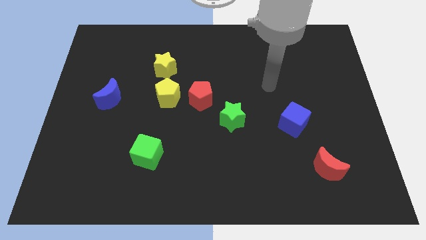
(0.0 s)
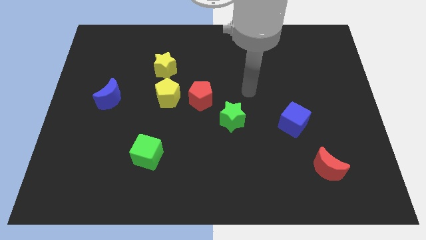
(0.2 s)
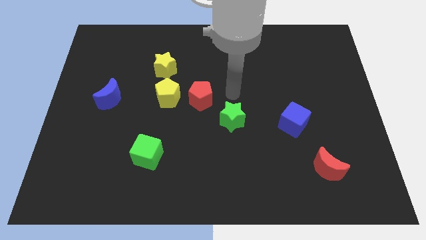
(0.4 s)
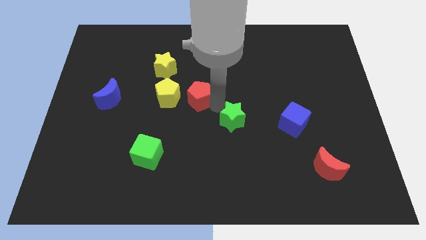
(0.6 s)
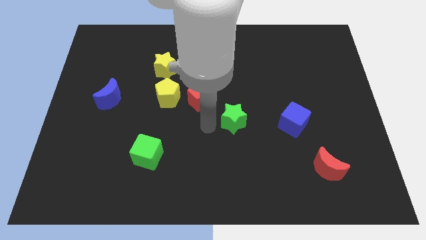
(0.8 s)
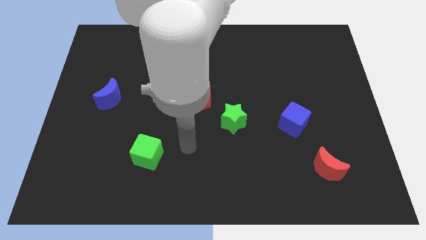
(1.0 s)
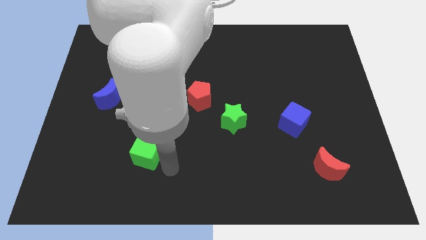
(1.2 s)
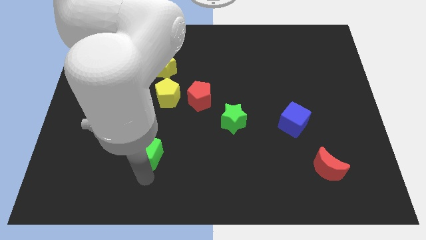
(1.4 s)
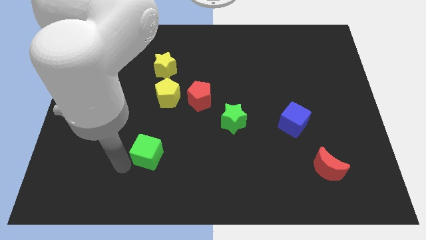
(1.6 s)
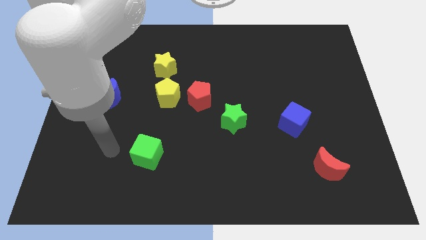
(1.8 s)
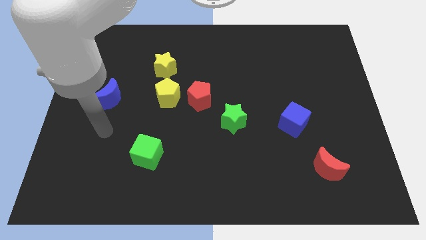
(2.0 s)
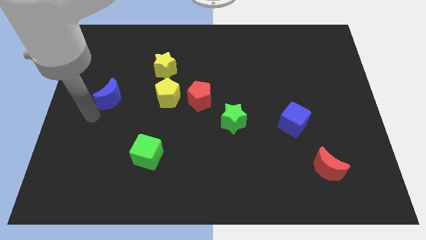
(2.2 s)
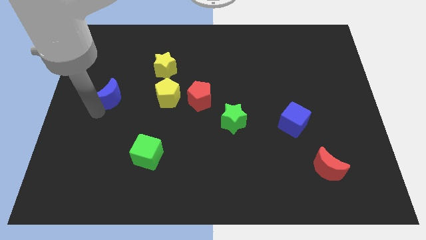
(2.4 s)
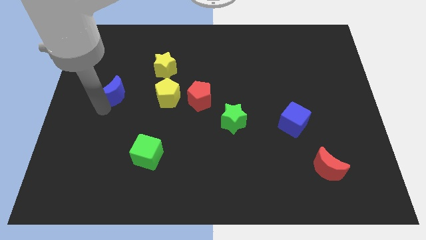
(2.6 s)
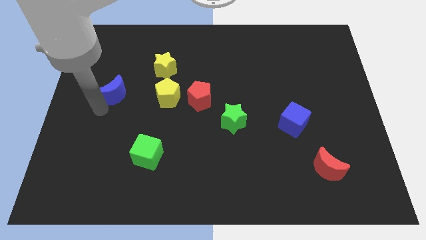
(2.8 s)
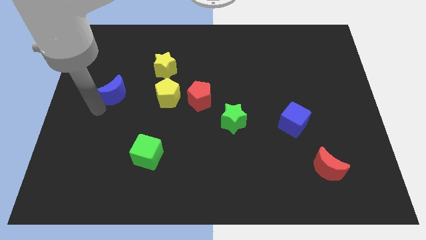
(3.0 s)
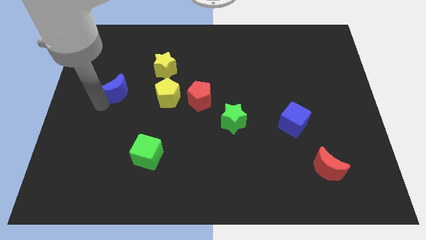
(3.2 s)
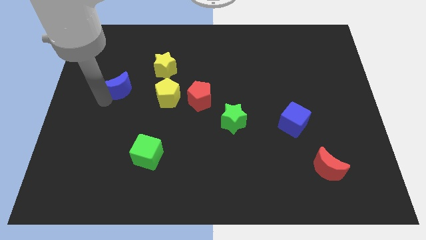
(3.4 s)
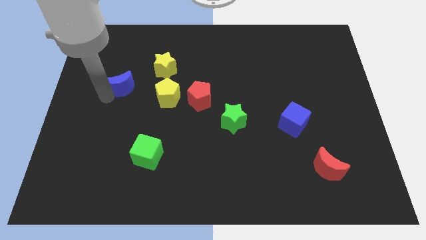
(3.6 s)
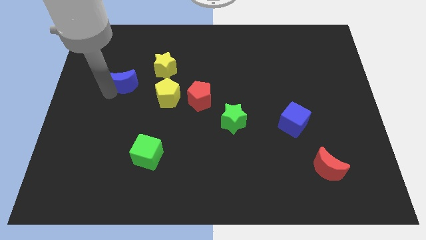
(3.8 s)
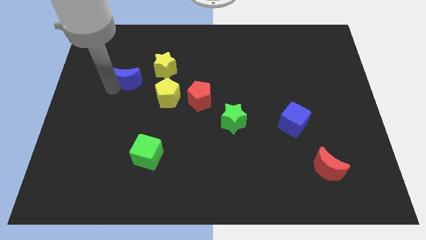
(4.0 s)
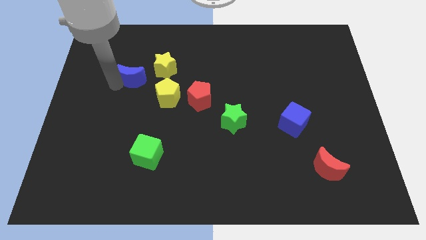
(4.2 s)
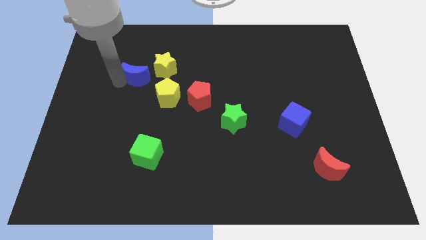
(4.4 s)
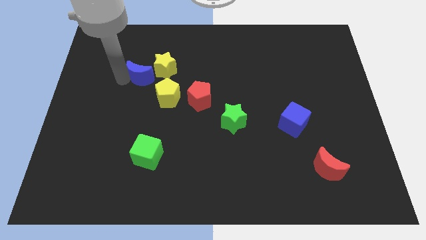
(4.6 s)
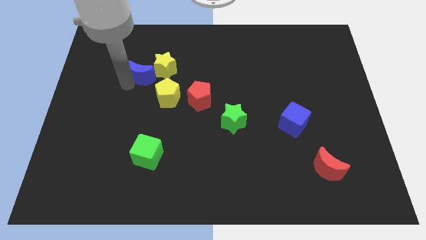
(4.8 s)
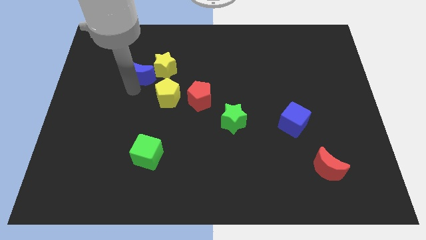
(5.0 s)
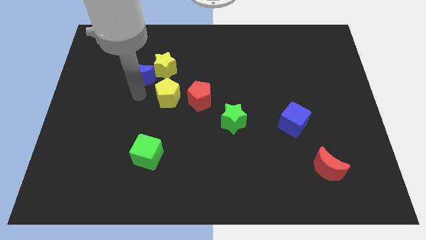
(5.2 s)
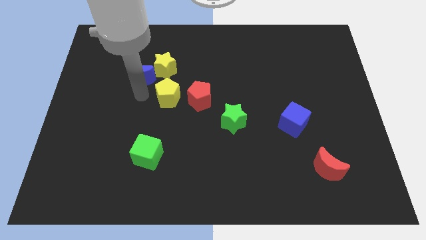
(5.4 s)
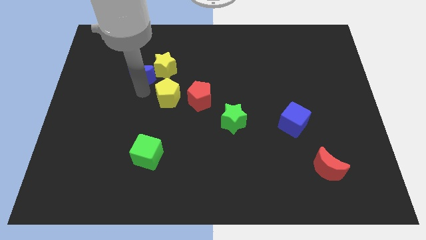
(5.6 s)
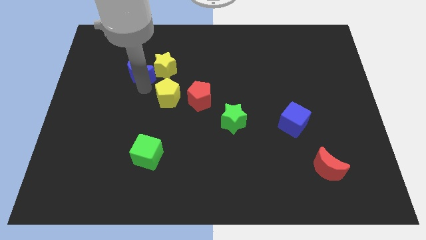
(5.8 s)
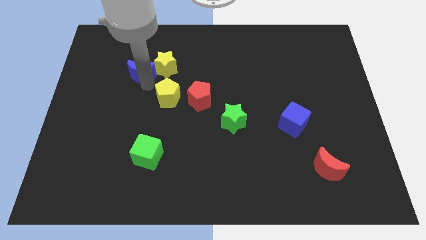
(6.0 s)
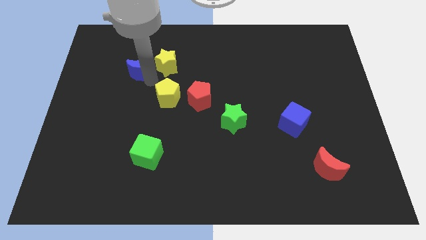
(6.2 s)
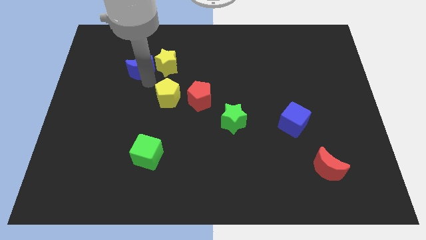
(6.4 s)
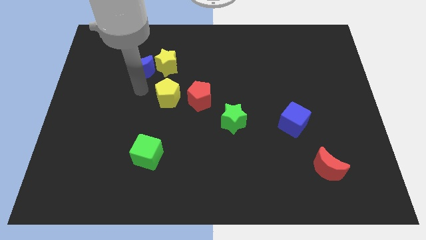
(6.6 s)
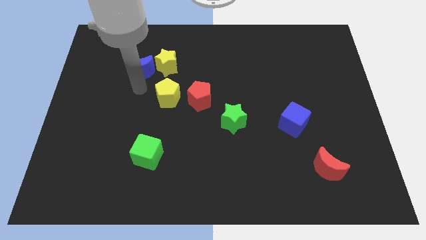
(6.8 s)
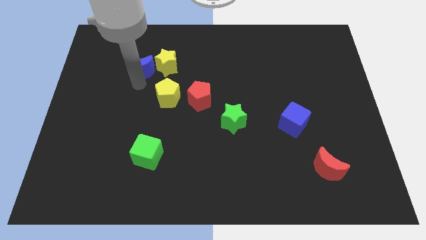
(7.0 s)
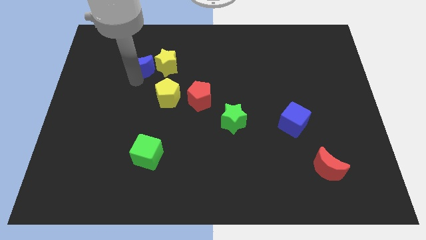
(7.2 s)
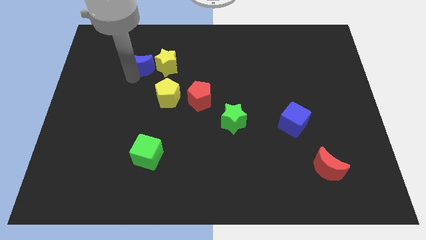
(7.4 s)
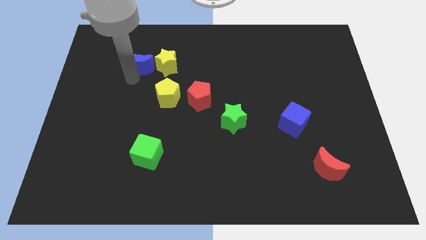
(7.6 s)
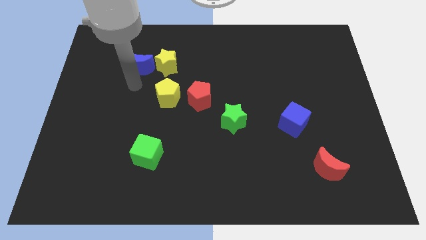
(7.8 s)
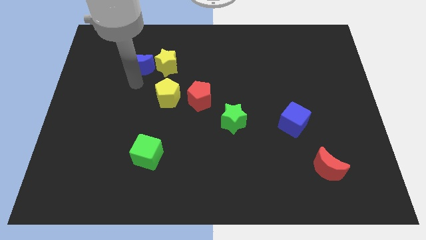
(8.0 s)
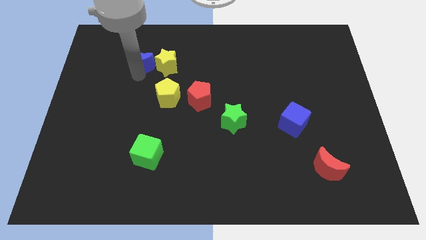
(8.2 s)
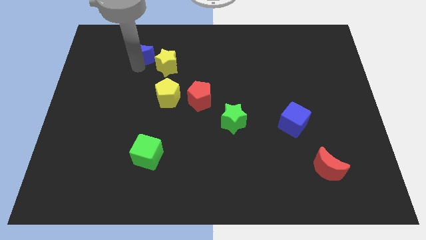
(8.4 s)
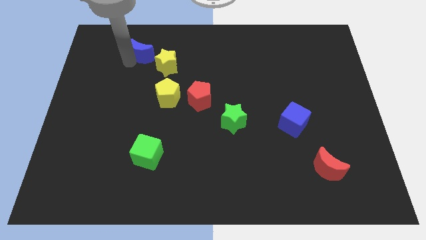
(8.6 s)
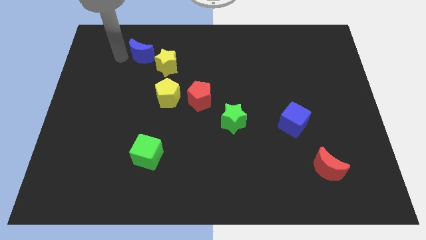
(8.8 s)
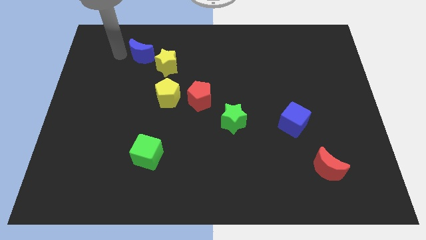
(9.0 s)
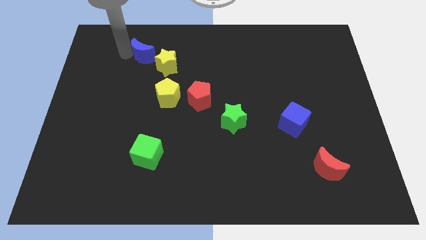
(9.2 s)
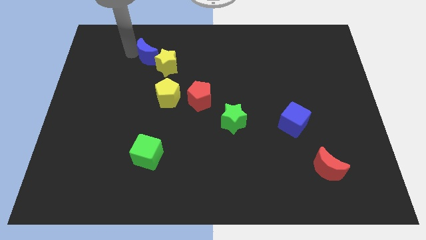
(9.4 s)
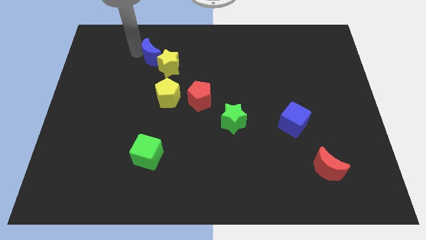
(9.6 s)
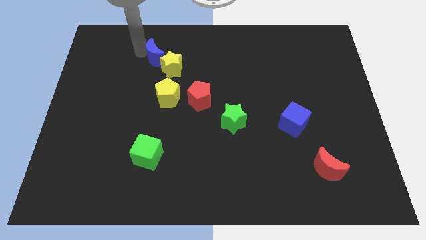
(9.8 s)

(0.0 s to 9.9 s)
slide the blue moon to the top side of the yellow pentagon

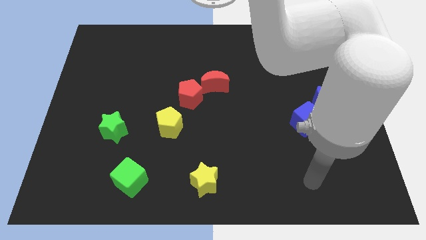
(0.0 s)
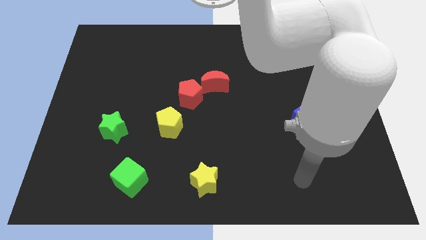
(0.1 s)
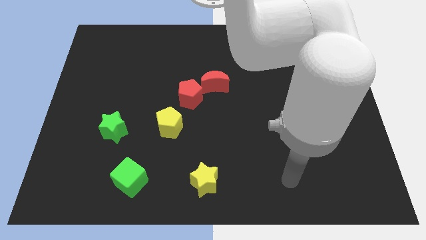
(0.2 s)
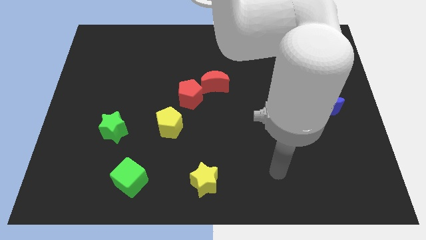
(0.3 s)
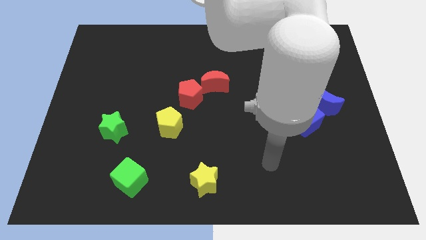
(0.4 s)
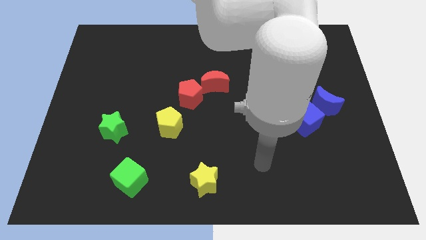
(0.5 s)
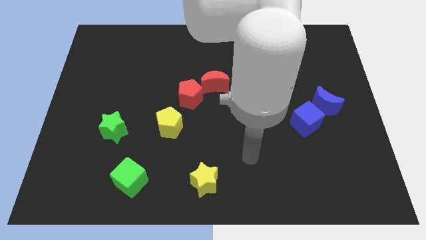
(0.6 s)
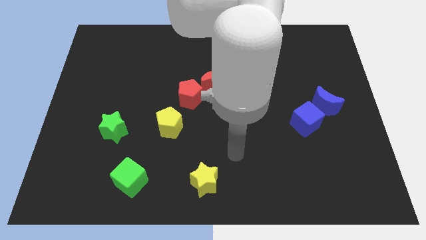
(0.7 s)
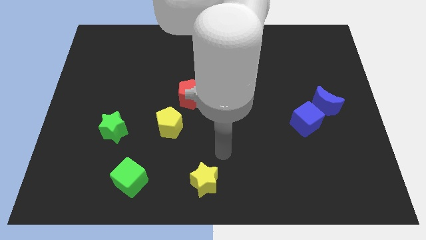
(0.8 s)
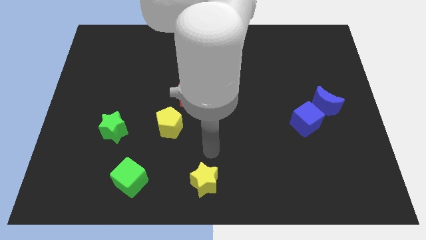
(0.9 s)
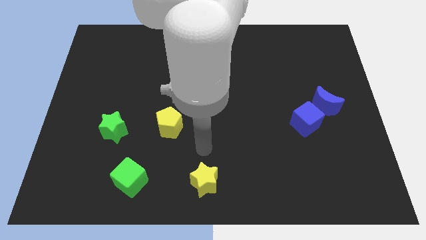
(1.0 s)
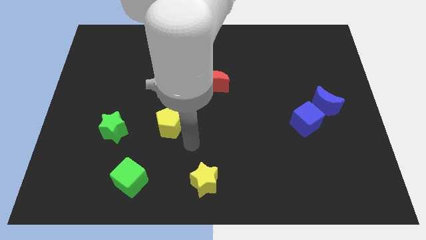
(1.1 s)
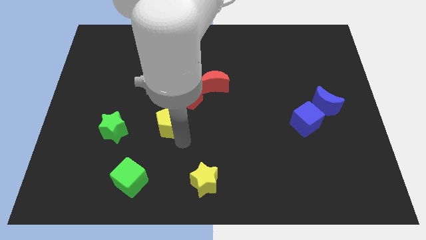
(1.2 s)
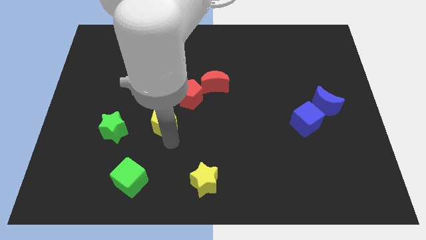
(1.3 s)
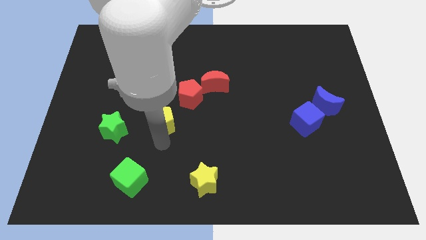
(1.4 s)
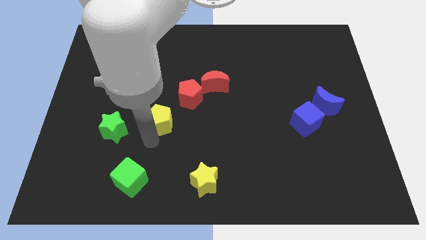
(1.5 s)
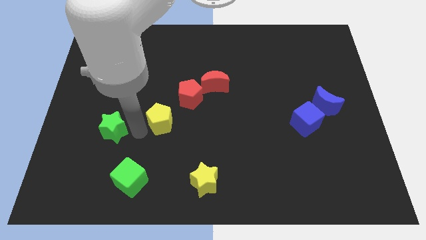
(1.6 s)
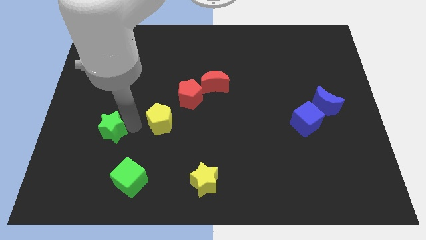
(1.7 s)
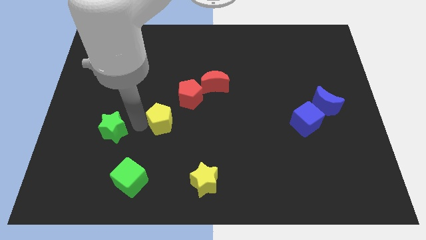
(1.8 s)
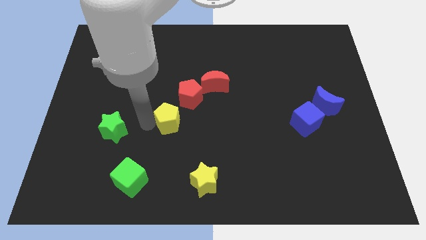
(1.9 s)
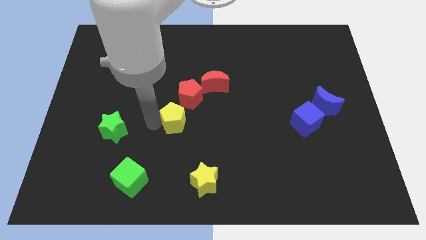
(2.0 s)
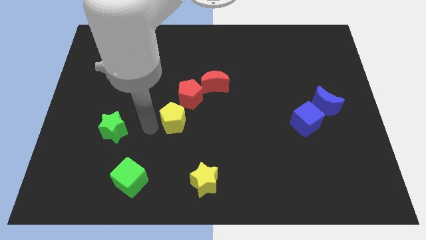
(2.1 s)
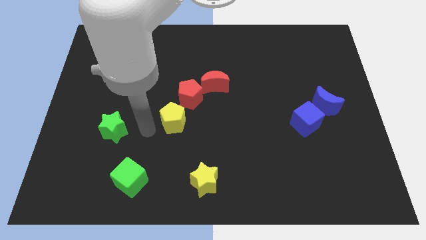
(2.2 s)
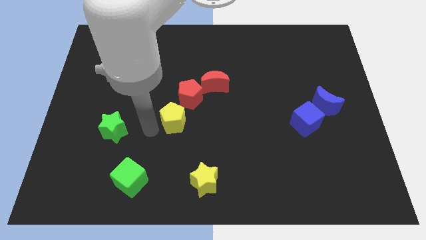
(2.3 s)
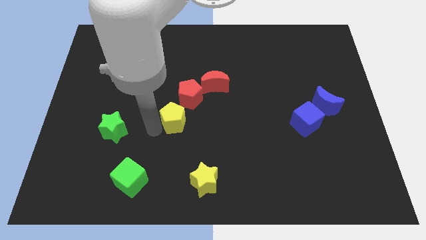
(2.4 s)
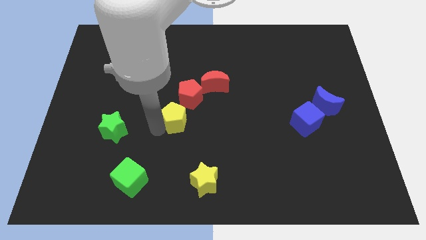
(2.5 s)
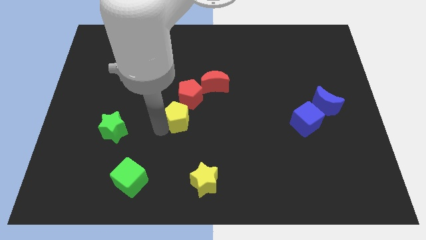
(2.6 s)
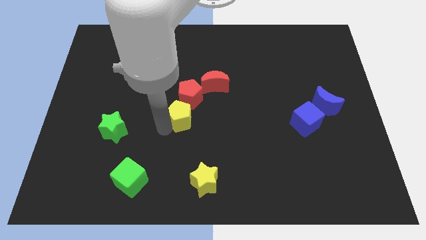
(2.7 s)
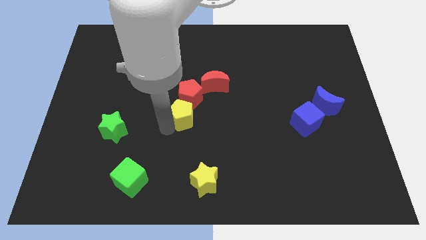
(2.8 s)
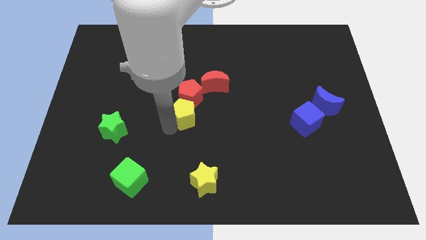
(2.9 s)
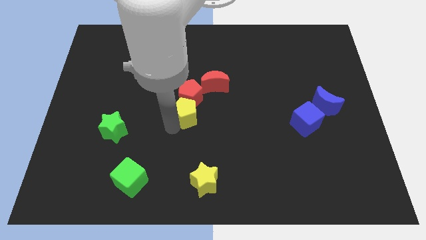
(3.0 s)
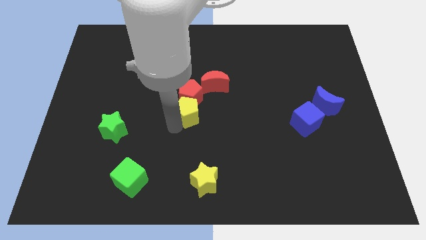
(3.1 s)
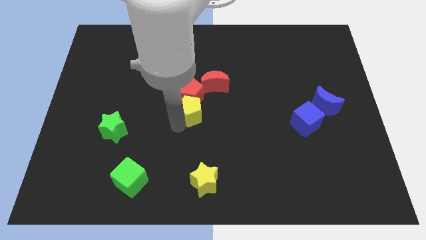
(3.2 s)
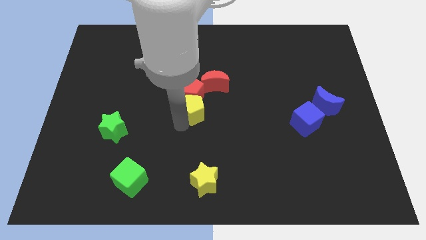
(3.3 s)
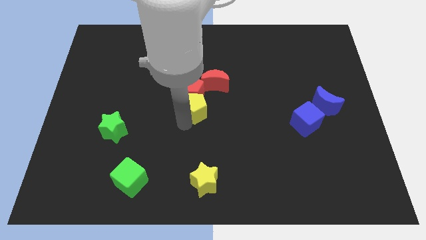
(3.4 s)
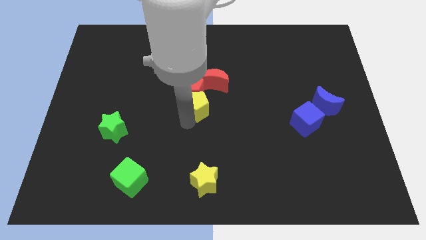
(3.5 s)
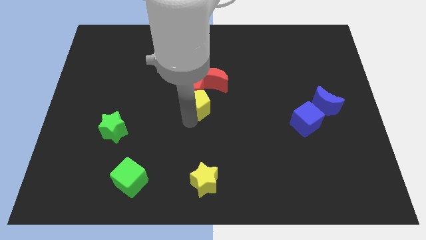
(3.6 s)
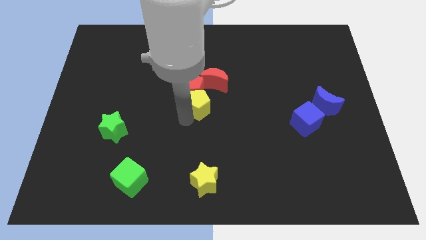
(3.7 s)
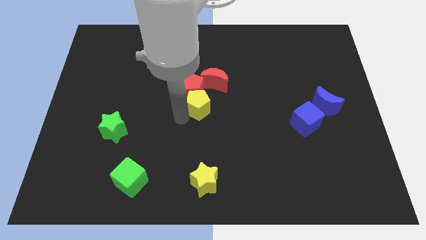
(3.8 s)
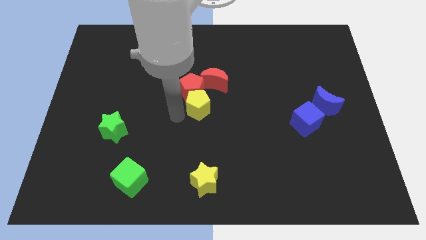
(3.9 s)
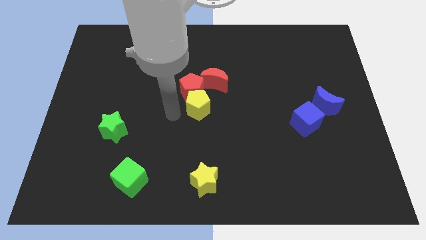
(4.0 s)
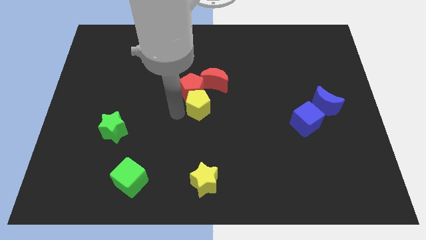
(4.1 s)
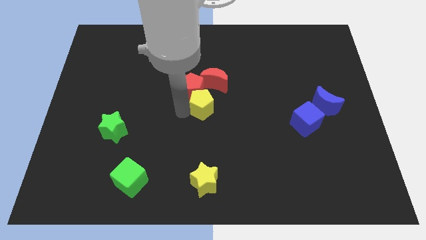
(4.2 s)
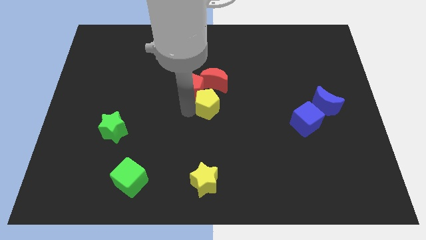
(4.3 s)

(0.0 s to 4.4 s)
move the yellow pentagon to the right side of the red pentagon
